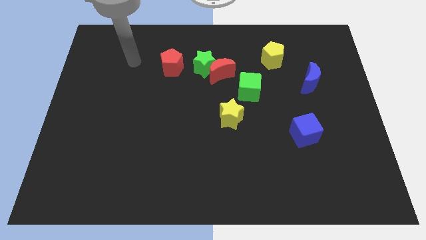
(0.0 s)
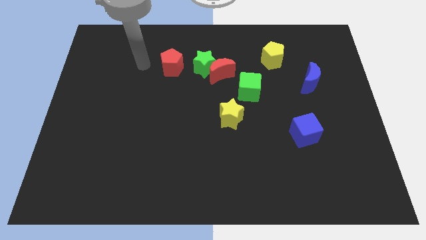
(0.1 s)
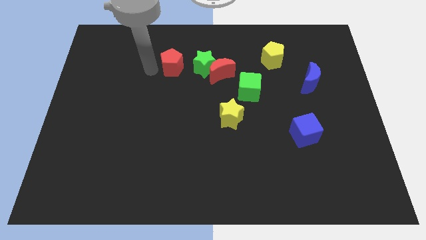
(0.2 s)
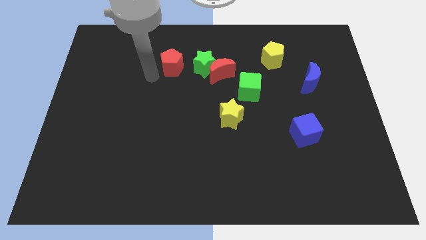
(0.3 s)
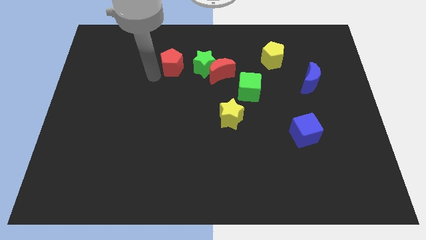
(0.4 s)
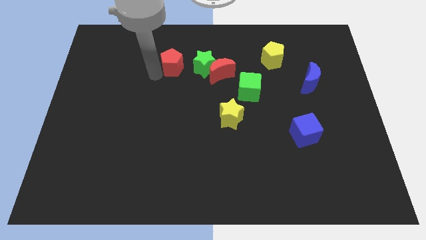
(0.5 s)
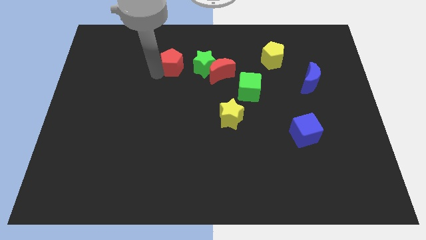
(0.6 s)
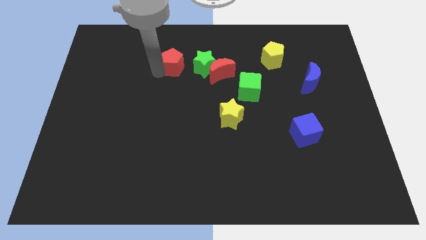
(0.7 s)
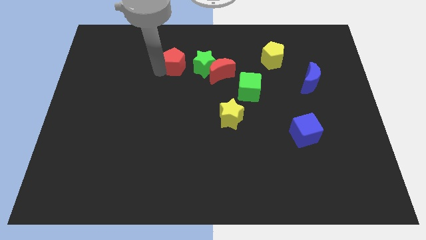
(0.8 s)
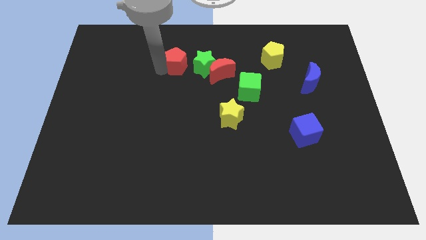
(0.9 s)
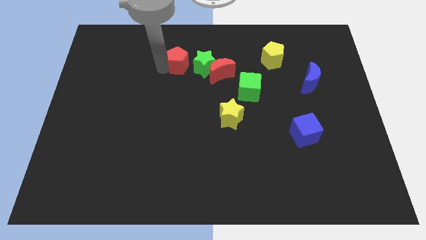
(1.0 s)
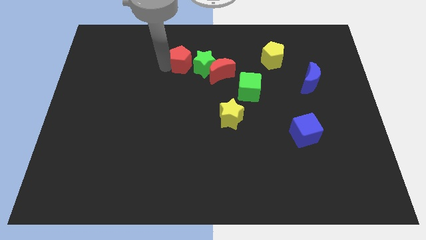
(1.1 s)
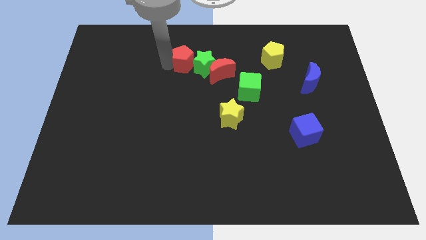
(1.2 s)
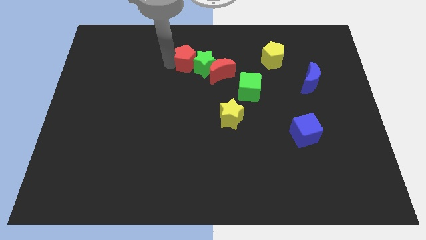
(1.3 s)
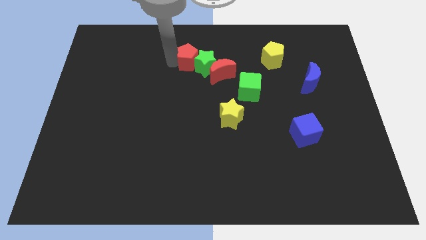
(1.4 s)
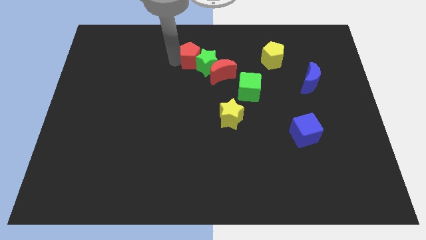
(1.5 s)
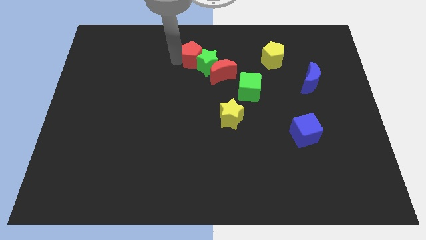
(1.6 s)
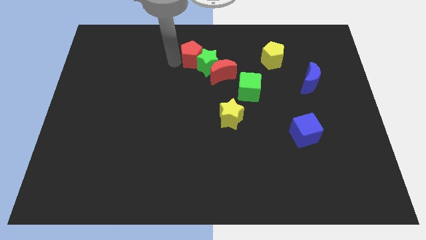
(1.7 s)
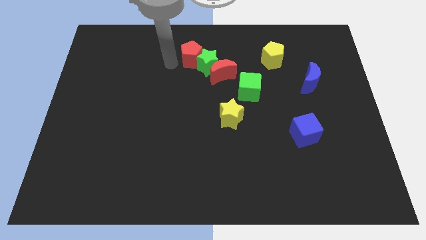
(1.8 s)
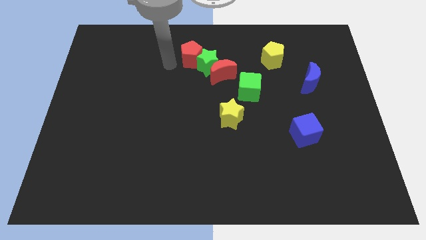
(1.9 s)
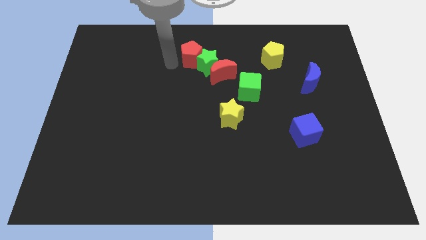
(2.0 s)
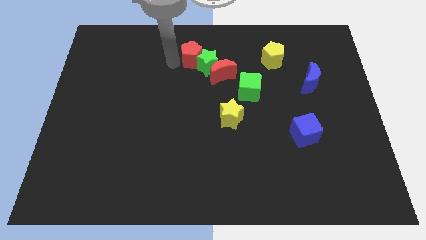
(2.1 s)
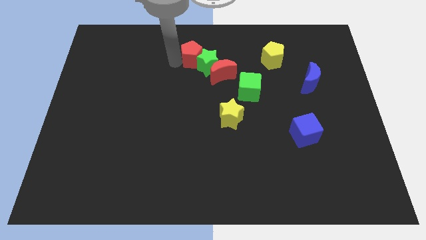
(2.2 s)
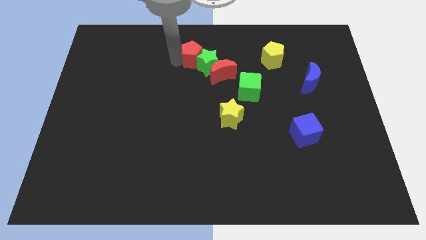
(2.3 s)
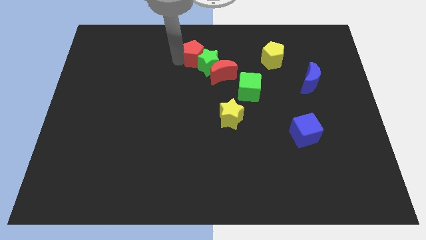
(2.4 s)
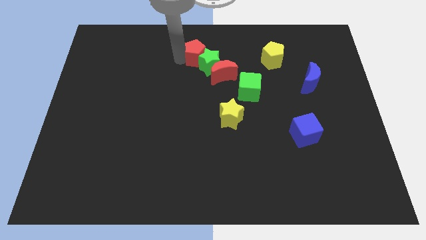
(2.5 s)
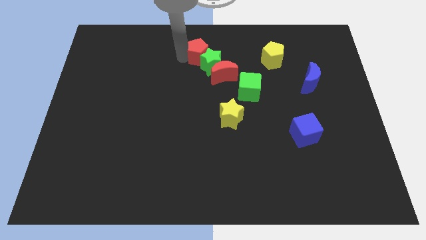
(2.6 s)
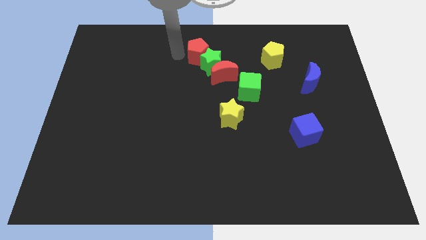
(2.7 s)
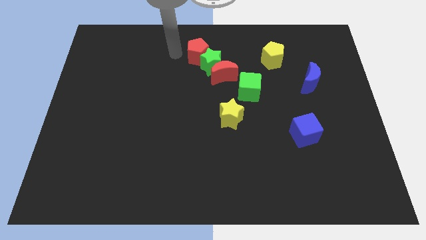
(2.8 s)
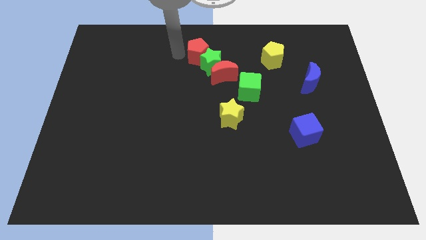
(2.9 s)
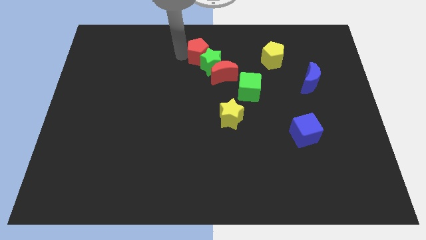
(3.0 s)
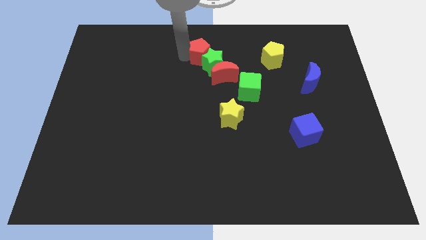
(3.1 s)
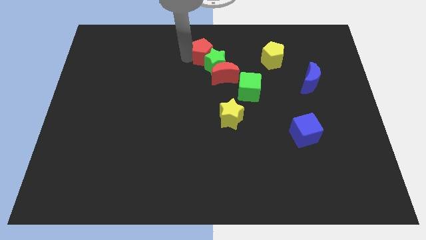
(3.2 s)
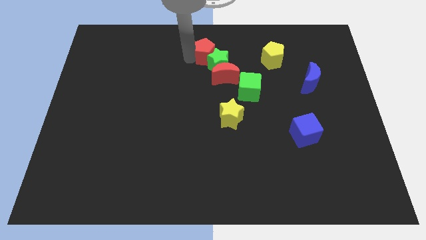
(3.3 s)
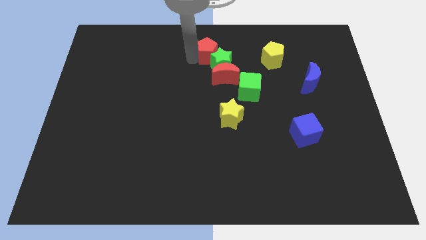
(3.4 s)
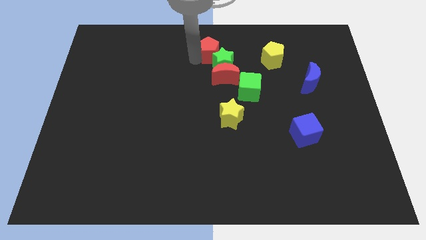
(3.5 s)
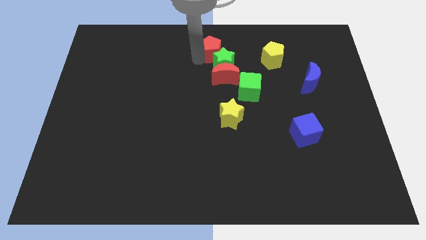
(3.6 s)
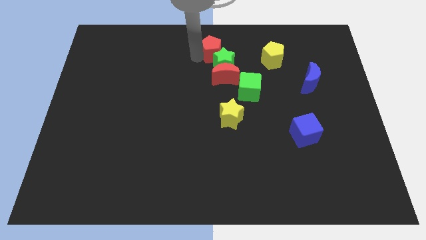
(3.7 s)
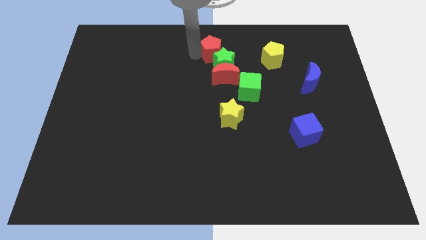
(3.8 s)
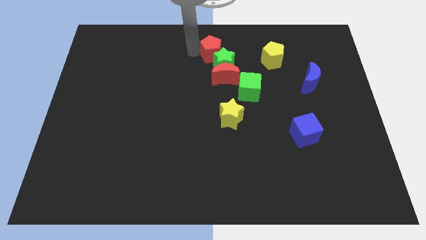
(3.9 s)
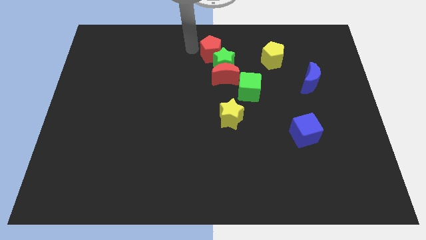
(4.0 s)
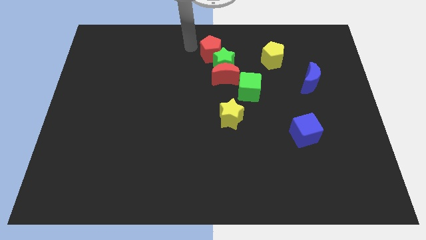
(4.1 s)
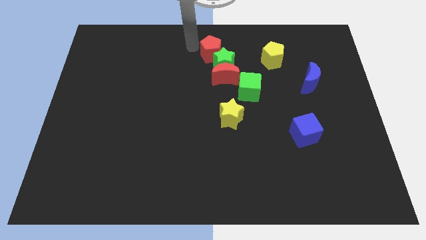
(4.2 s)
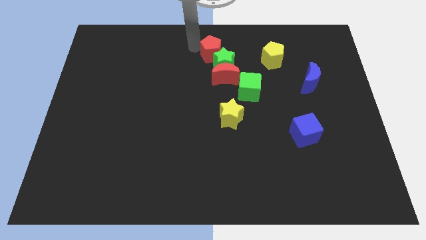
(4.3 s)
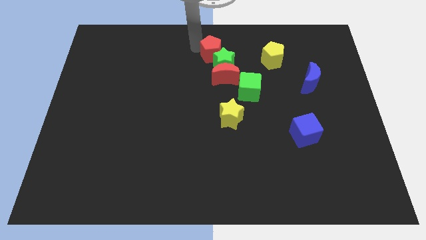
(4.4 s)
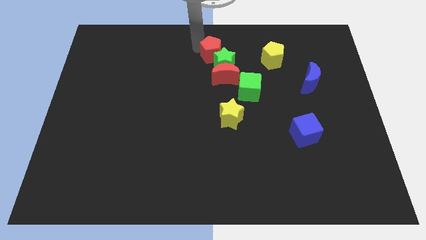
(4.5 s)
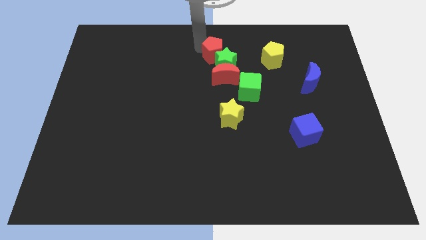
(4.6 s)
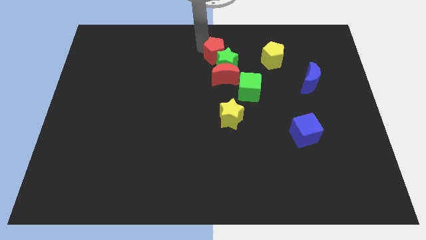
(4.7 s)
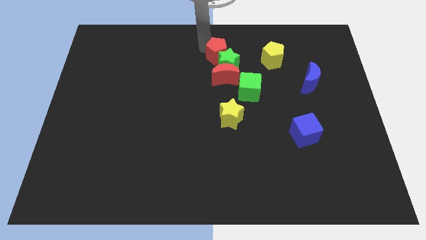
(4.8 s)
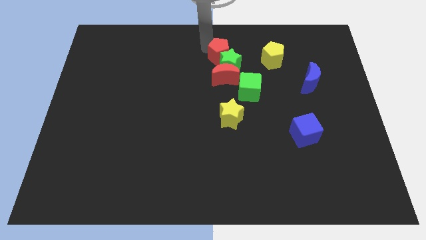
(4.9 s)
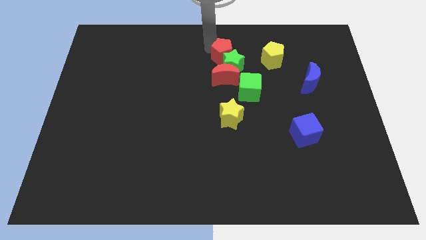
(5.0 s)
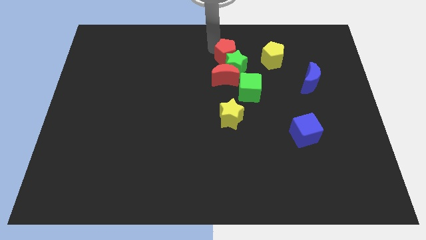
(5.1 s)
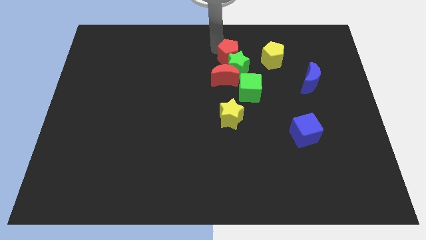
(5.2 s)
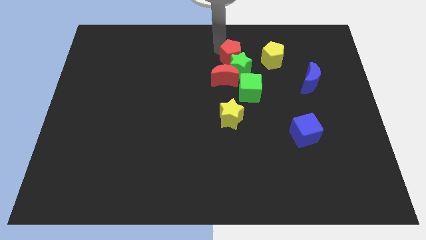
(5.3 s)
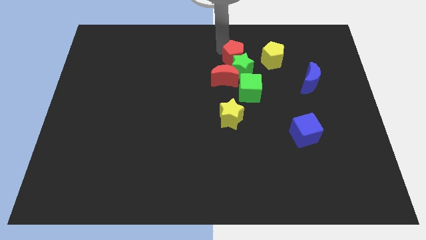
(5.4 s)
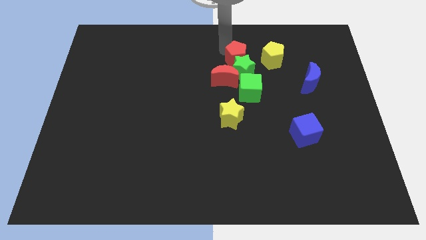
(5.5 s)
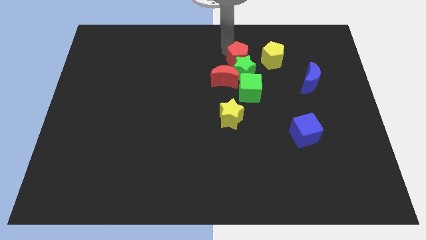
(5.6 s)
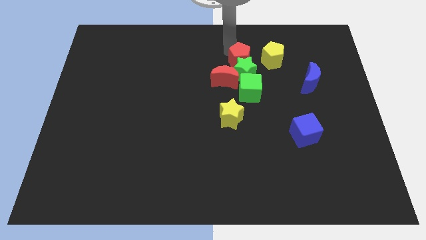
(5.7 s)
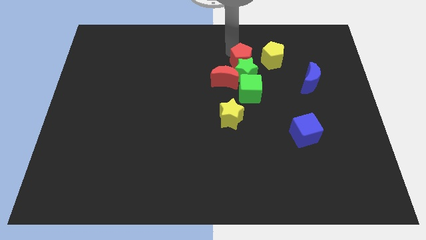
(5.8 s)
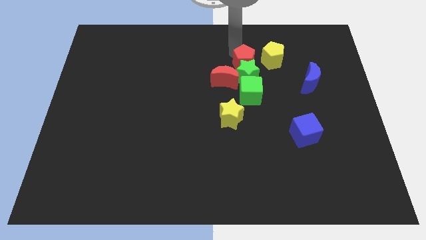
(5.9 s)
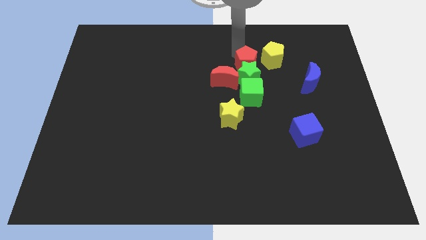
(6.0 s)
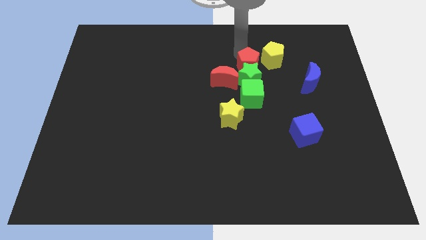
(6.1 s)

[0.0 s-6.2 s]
push the red pentagon right

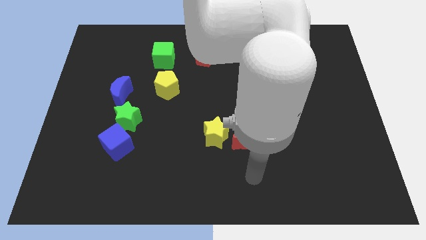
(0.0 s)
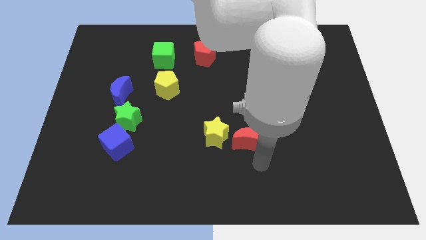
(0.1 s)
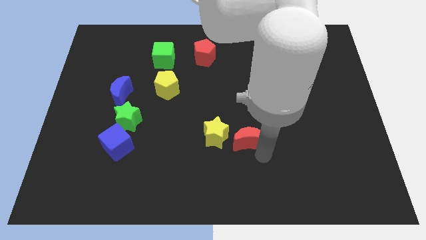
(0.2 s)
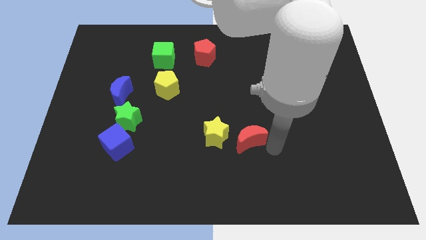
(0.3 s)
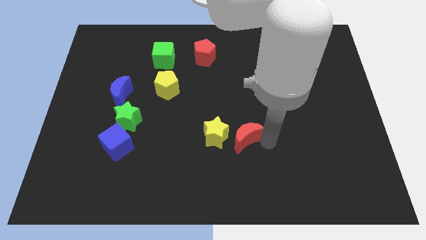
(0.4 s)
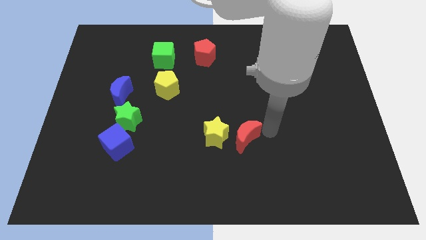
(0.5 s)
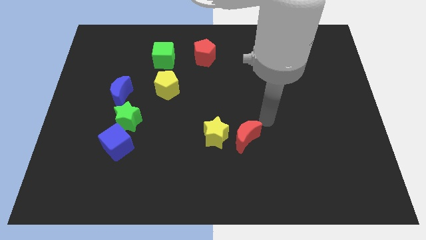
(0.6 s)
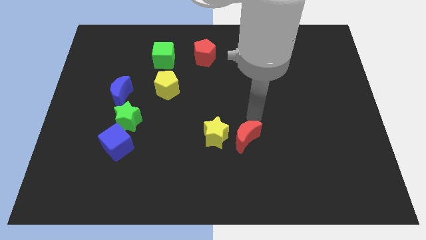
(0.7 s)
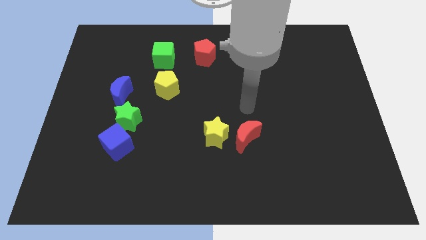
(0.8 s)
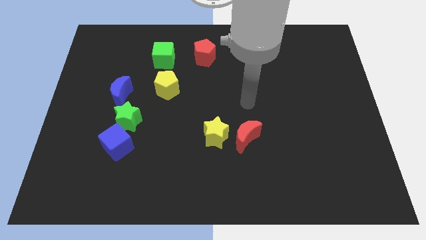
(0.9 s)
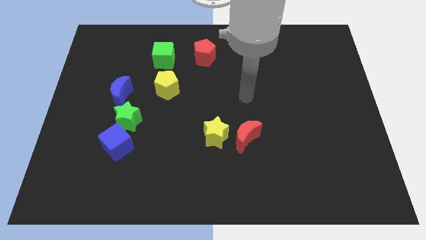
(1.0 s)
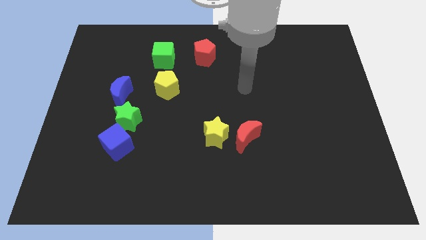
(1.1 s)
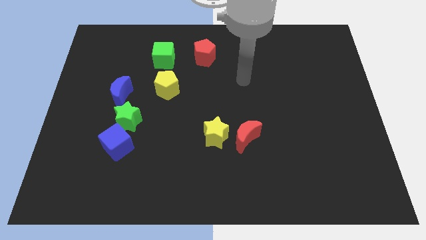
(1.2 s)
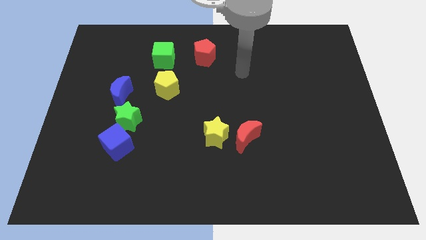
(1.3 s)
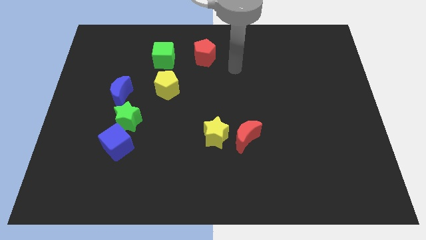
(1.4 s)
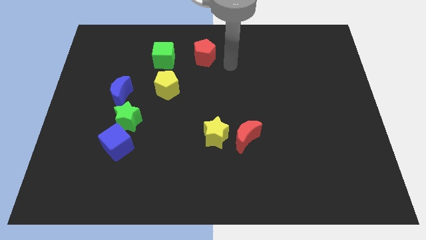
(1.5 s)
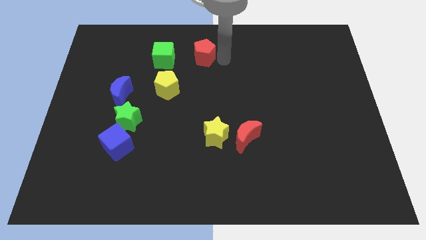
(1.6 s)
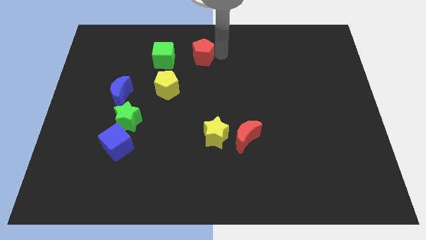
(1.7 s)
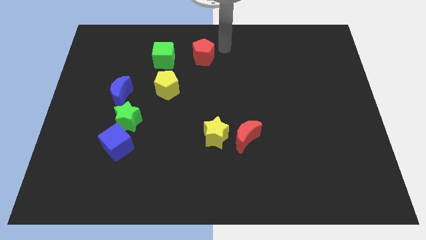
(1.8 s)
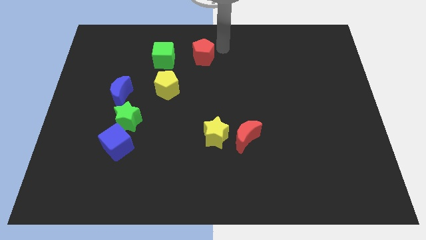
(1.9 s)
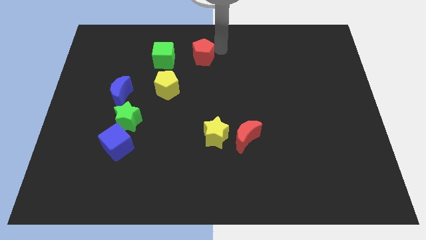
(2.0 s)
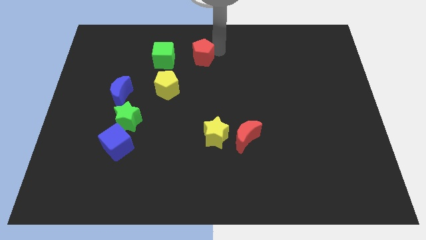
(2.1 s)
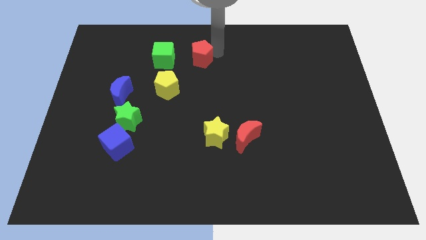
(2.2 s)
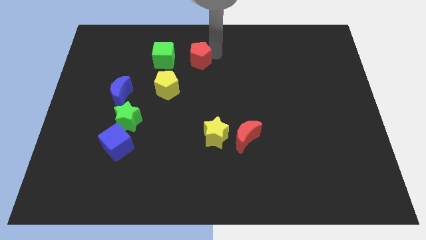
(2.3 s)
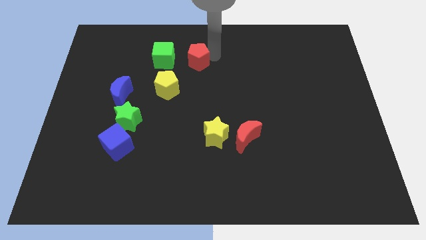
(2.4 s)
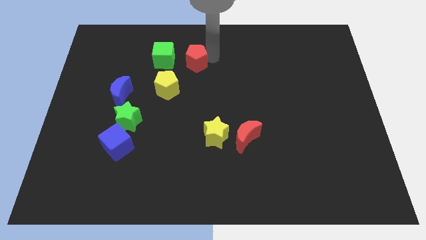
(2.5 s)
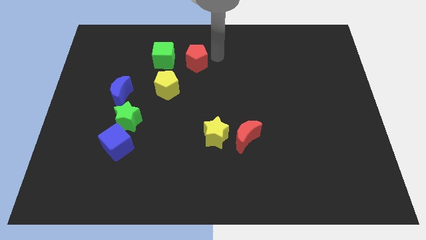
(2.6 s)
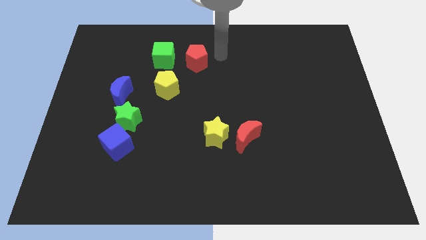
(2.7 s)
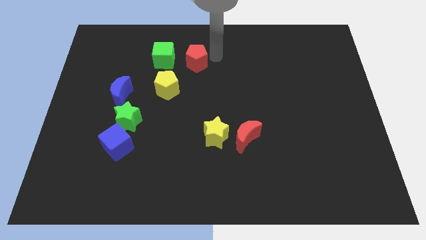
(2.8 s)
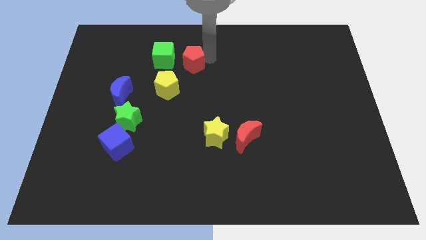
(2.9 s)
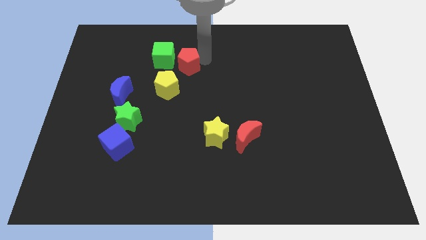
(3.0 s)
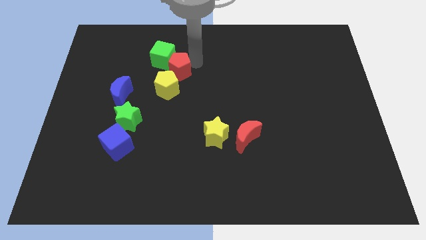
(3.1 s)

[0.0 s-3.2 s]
slightly slide the red pentagon diagonally down and to the left
